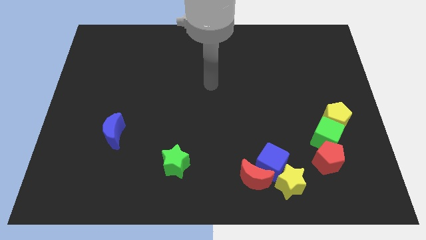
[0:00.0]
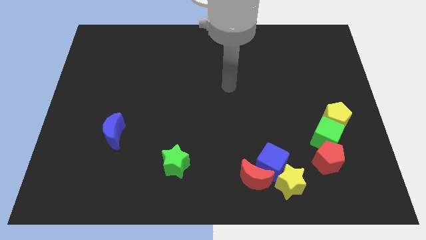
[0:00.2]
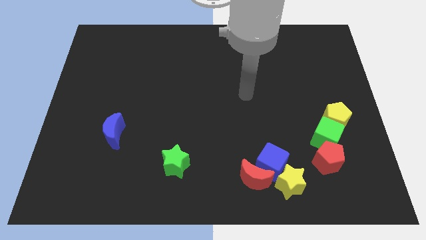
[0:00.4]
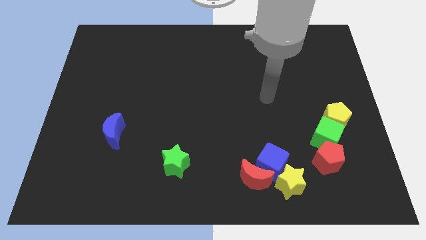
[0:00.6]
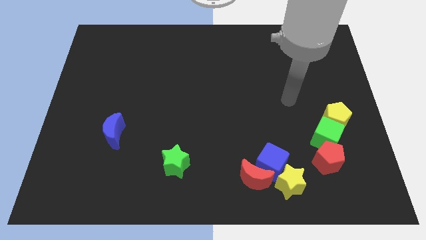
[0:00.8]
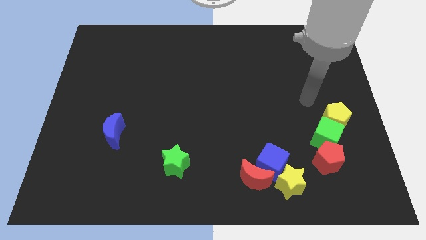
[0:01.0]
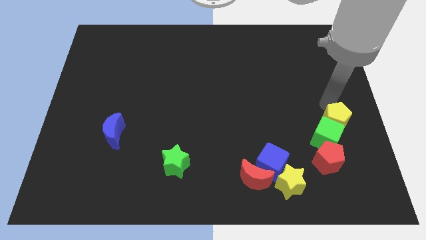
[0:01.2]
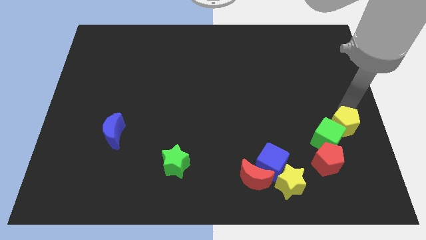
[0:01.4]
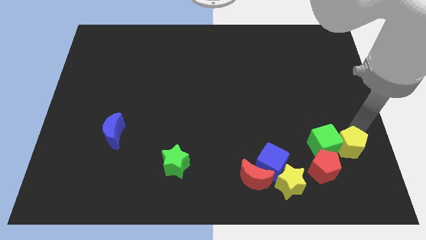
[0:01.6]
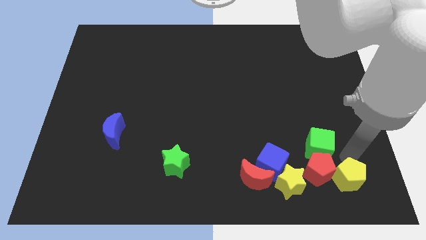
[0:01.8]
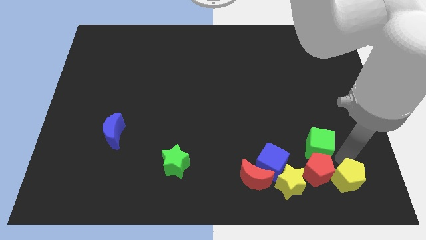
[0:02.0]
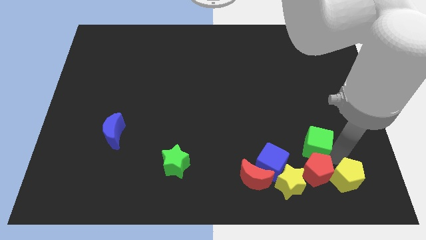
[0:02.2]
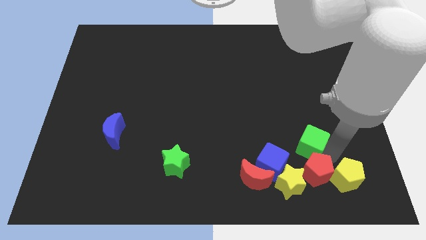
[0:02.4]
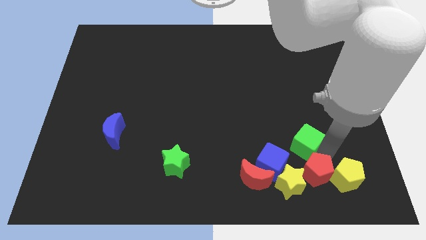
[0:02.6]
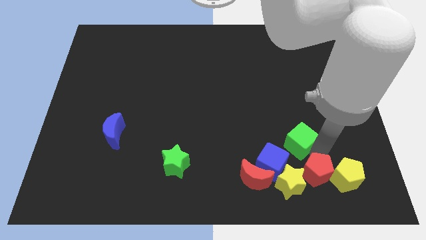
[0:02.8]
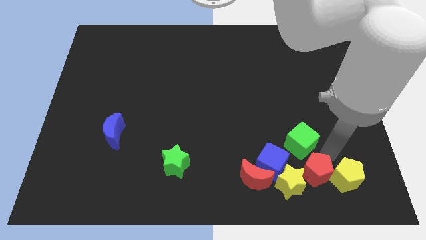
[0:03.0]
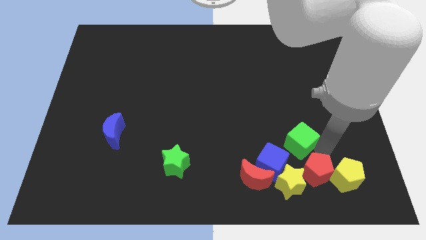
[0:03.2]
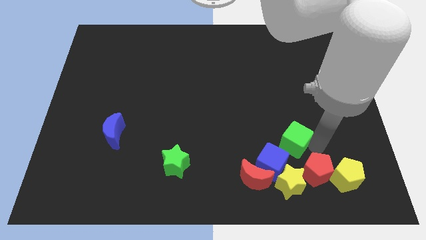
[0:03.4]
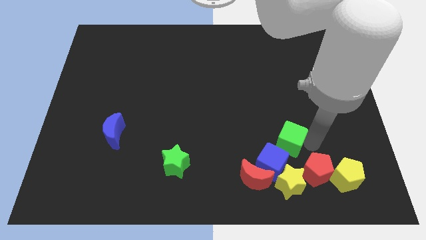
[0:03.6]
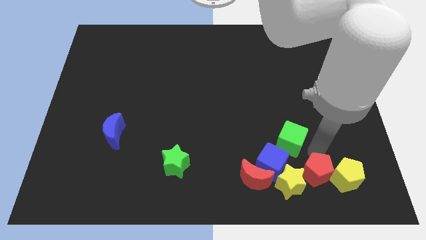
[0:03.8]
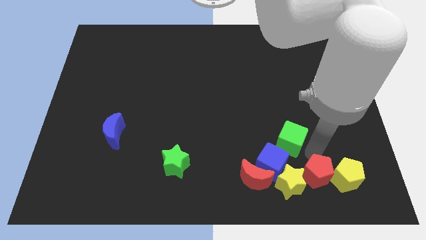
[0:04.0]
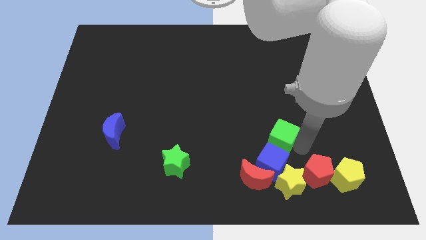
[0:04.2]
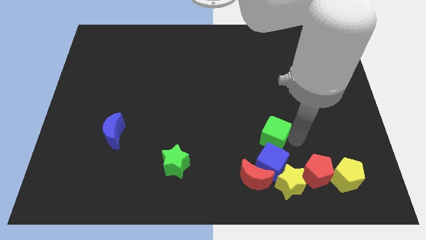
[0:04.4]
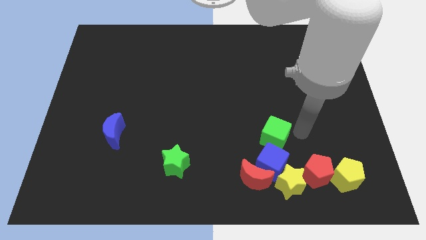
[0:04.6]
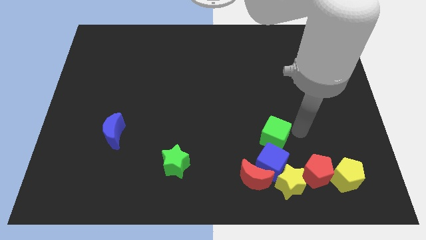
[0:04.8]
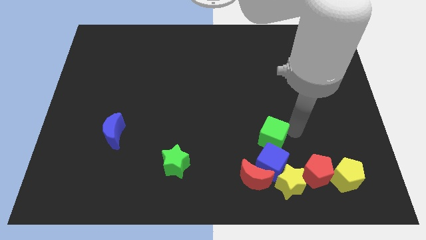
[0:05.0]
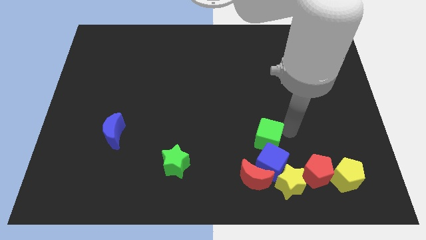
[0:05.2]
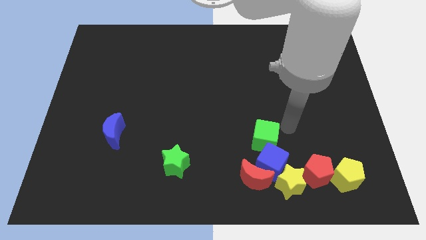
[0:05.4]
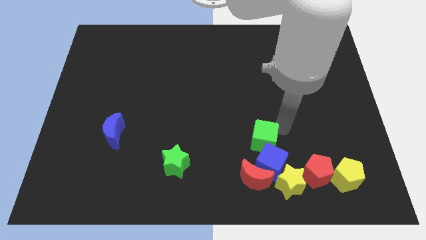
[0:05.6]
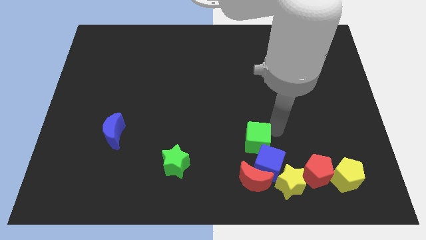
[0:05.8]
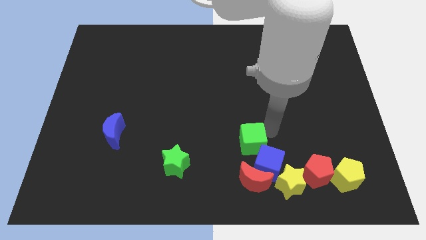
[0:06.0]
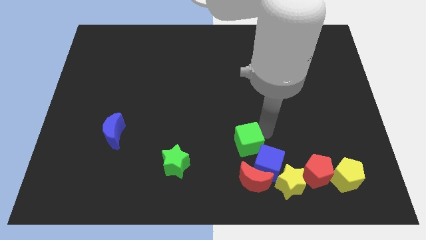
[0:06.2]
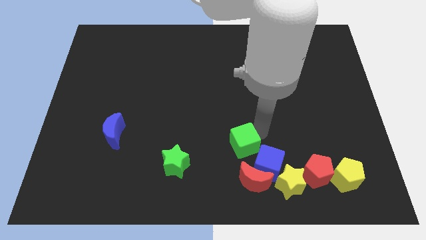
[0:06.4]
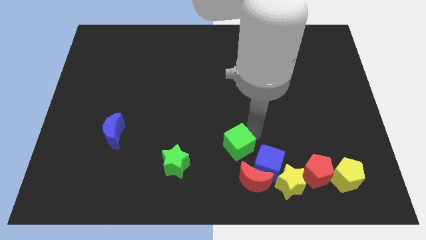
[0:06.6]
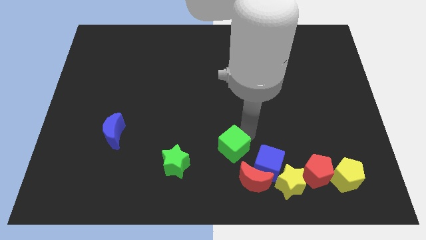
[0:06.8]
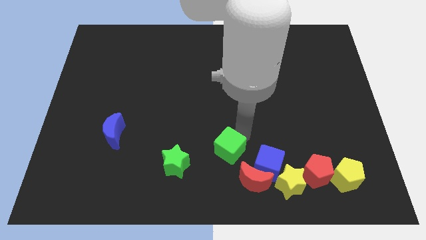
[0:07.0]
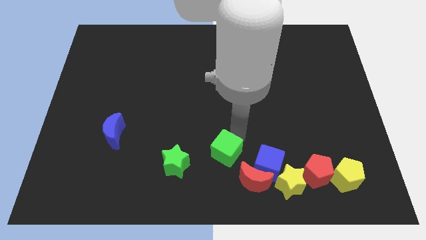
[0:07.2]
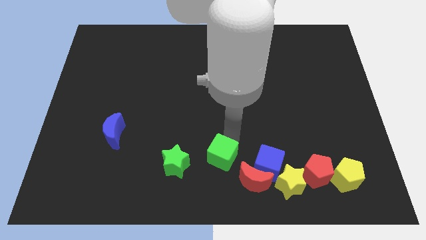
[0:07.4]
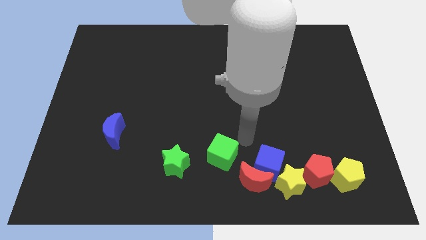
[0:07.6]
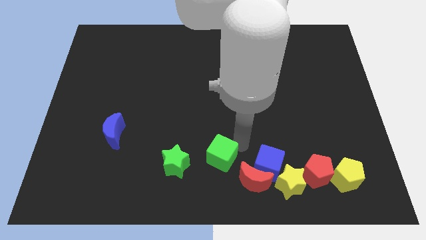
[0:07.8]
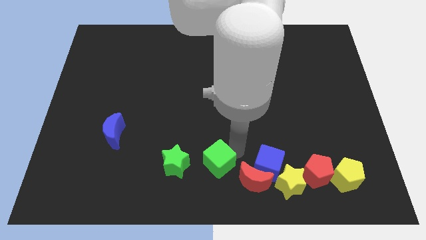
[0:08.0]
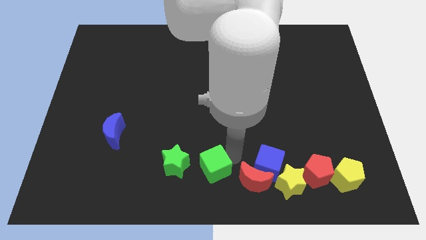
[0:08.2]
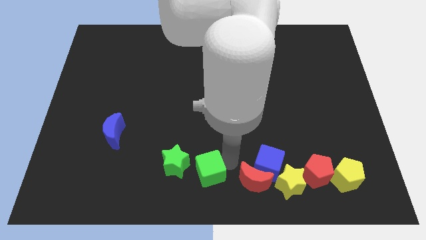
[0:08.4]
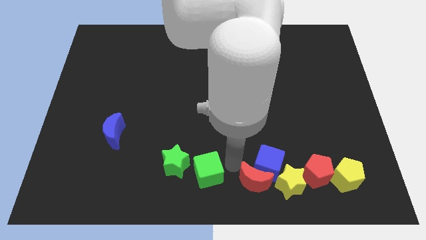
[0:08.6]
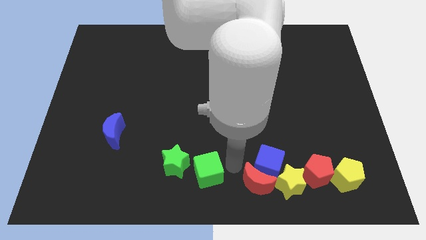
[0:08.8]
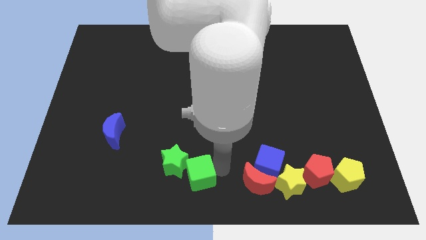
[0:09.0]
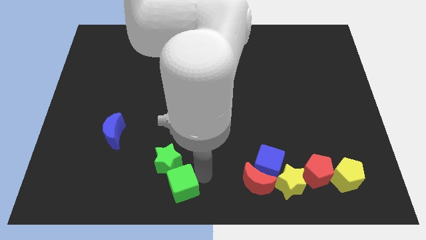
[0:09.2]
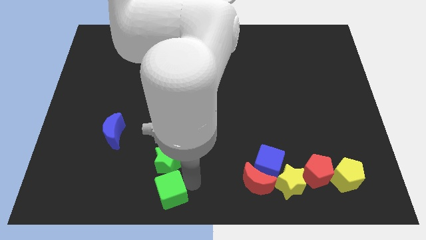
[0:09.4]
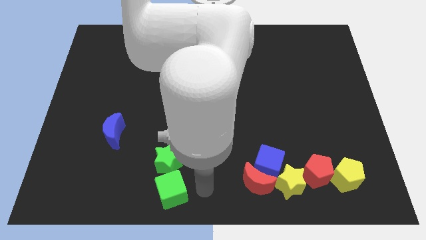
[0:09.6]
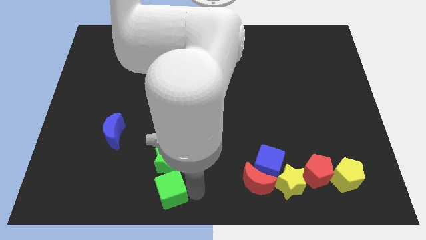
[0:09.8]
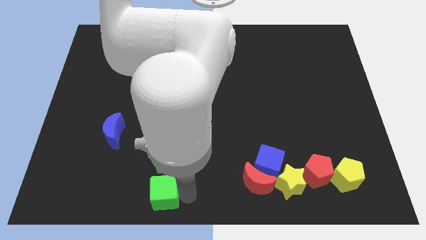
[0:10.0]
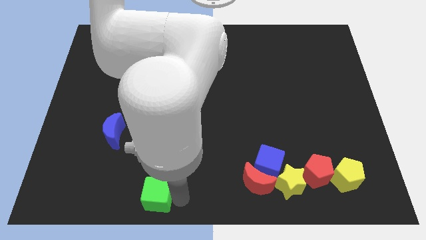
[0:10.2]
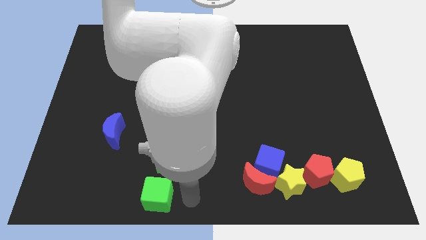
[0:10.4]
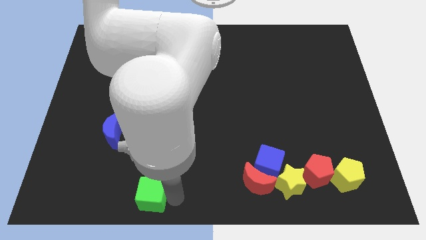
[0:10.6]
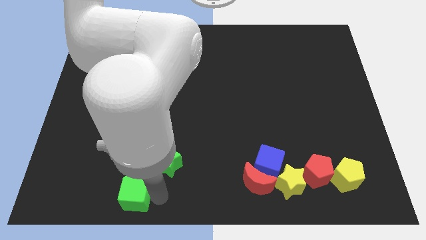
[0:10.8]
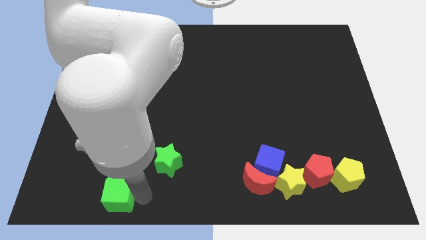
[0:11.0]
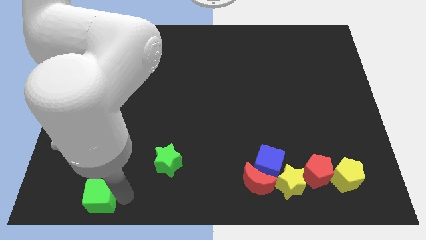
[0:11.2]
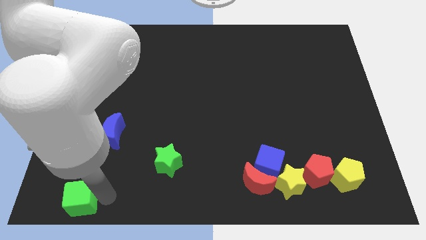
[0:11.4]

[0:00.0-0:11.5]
move the green cube to the lower left corner

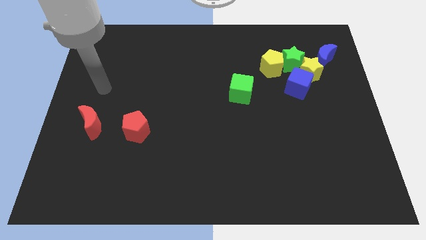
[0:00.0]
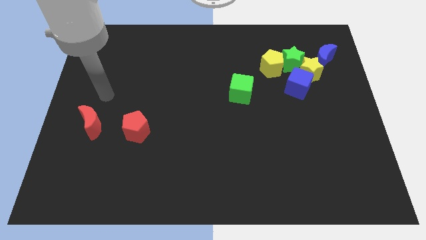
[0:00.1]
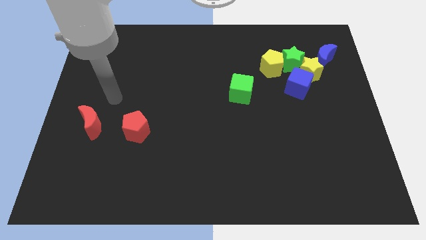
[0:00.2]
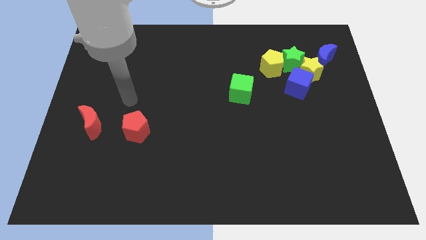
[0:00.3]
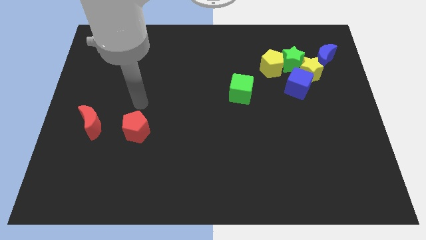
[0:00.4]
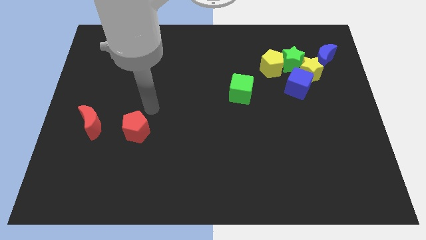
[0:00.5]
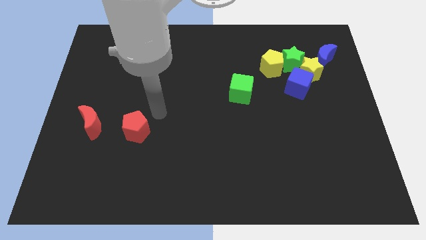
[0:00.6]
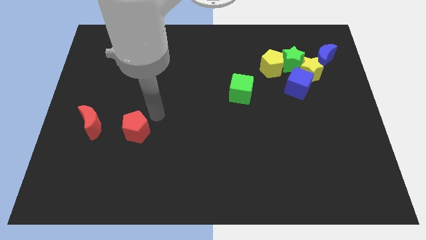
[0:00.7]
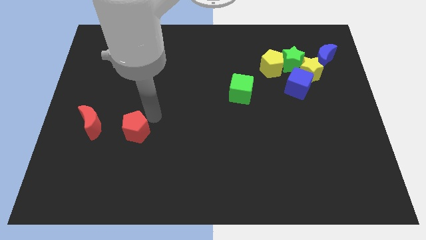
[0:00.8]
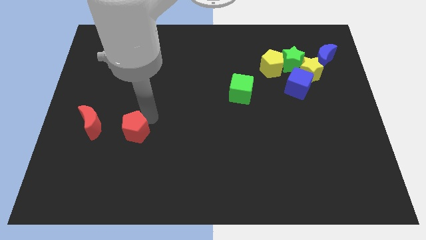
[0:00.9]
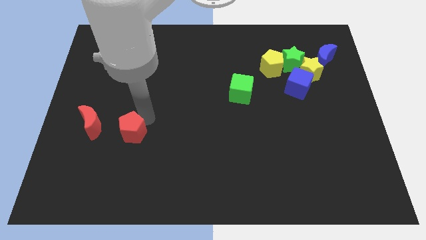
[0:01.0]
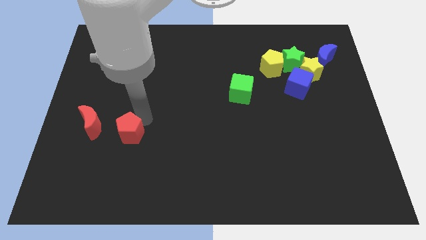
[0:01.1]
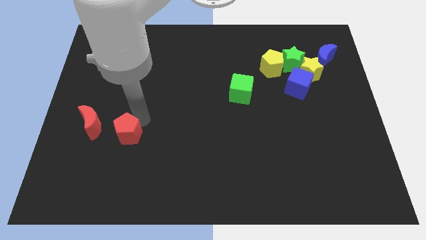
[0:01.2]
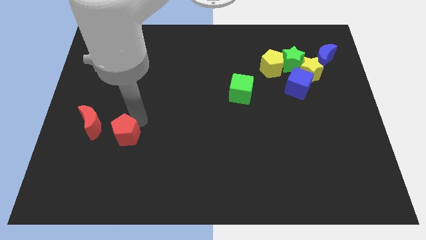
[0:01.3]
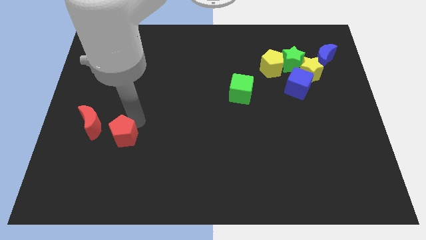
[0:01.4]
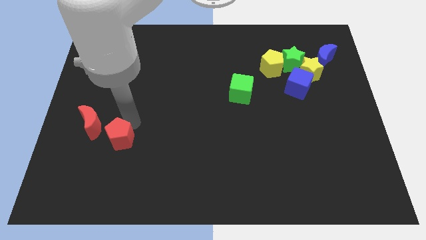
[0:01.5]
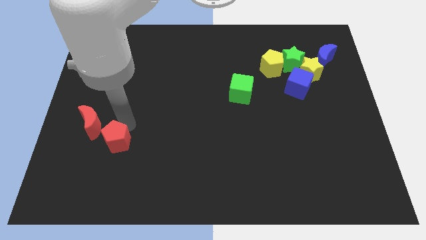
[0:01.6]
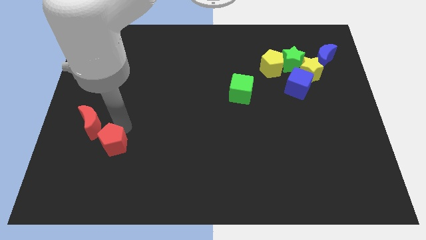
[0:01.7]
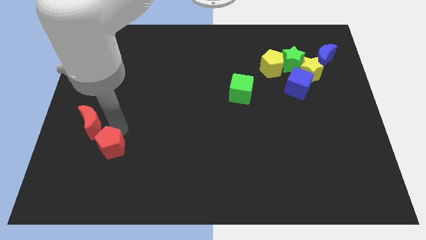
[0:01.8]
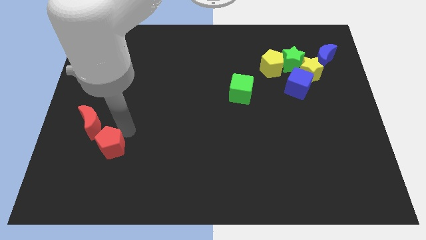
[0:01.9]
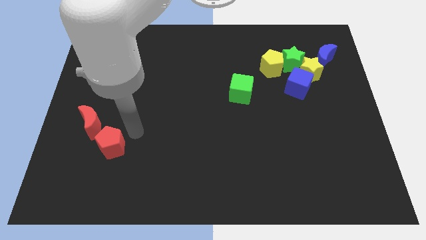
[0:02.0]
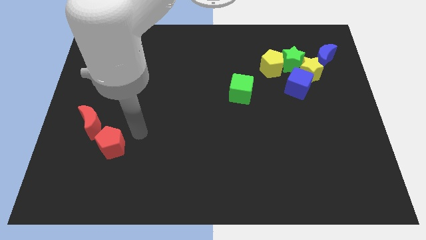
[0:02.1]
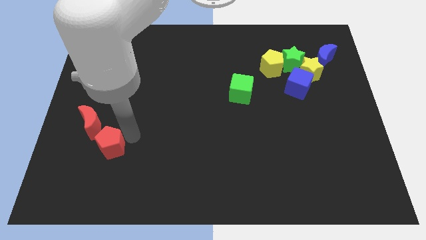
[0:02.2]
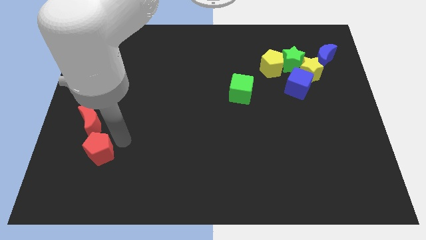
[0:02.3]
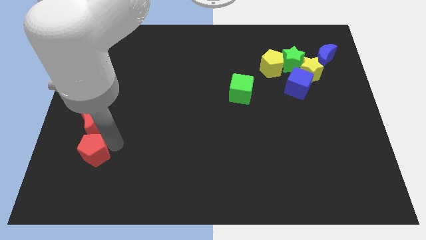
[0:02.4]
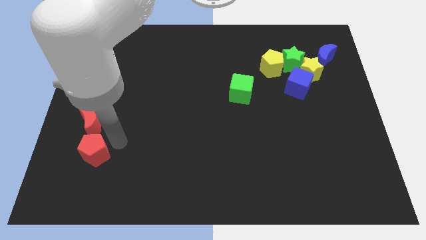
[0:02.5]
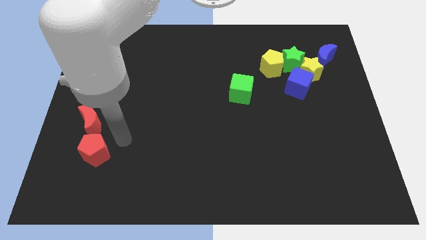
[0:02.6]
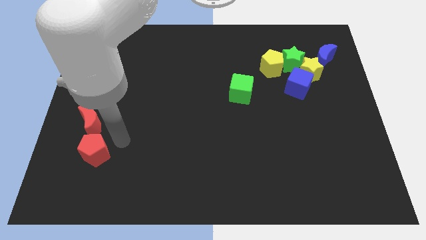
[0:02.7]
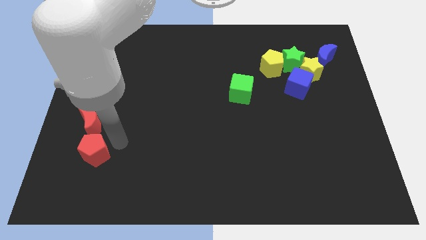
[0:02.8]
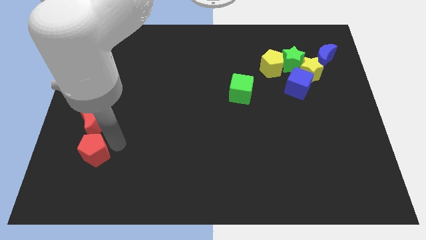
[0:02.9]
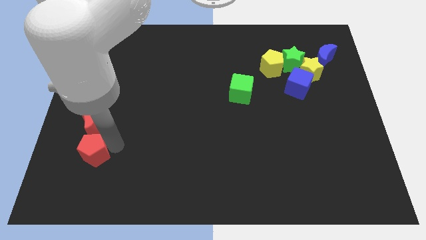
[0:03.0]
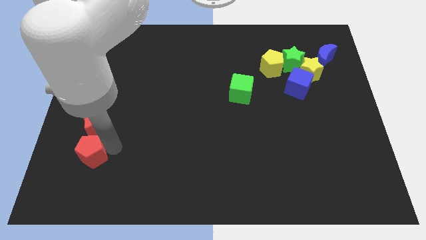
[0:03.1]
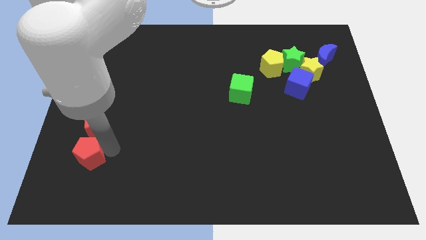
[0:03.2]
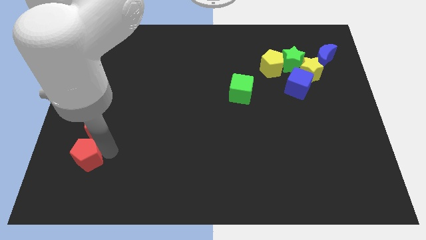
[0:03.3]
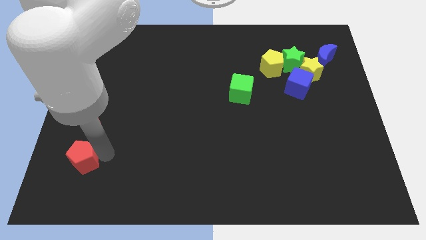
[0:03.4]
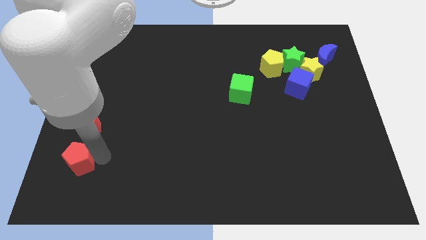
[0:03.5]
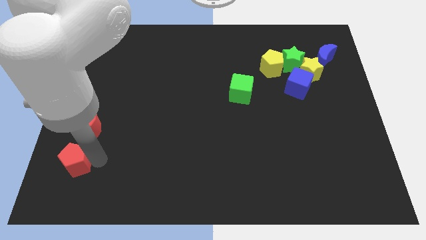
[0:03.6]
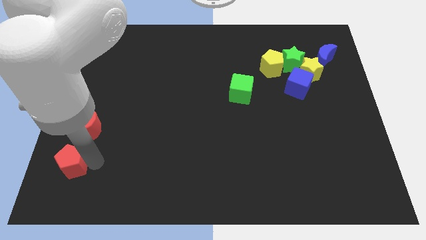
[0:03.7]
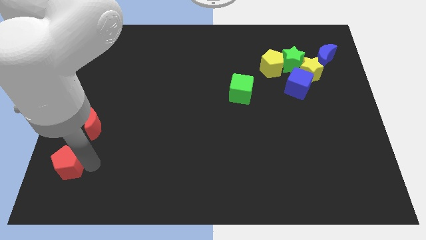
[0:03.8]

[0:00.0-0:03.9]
slide the red pentagon to the bottom left of the board
